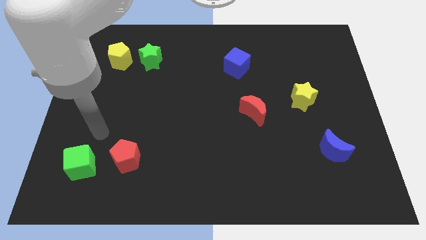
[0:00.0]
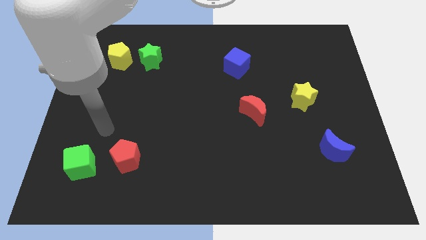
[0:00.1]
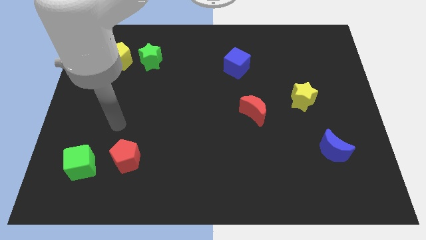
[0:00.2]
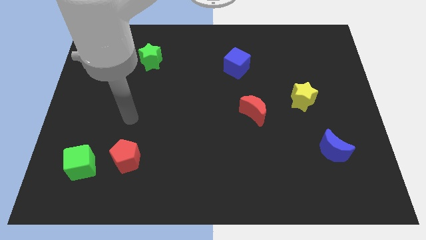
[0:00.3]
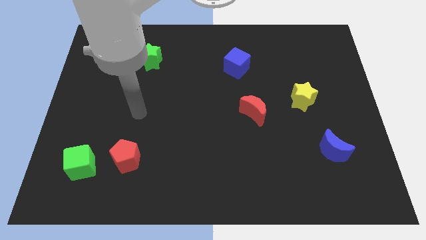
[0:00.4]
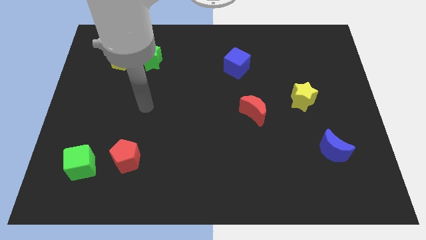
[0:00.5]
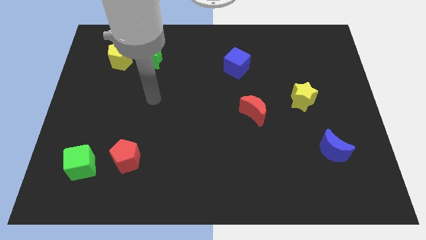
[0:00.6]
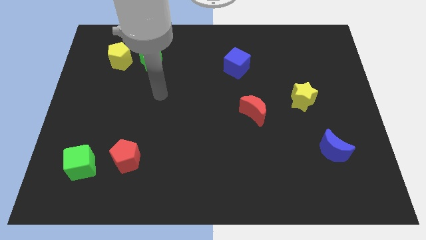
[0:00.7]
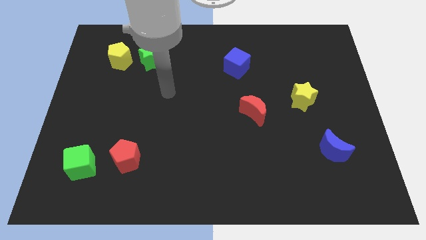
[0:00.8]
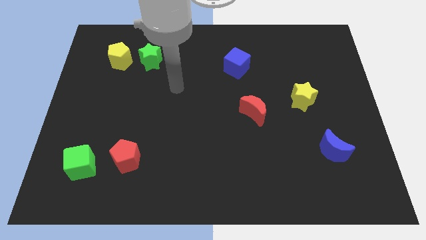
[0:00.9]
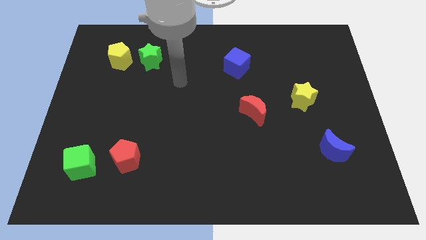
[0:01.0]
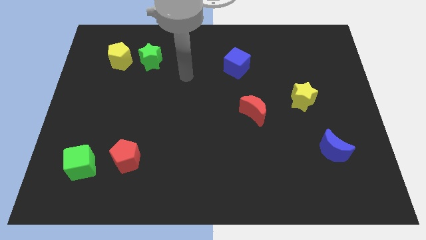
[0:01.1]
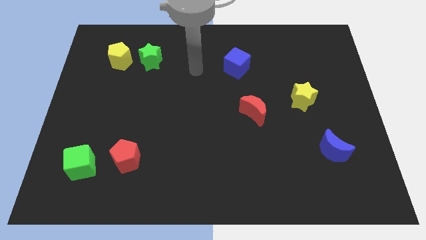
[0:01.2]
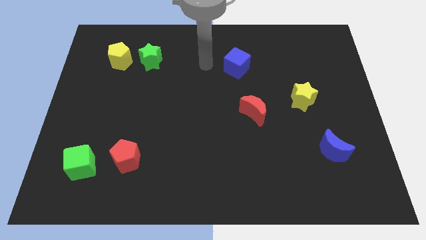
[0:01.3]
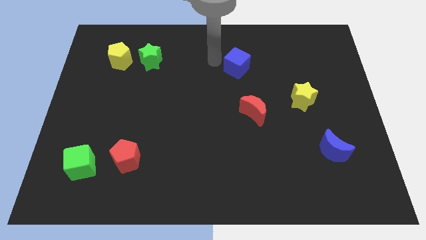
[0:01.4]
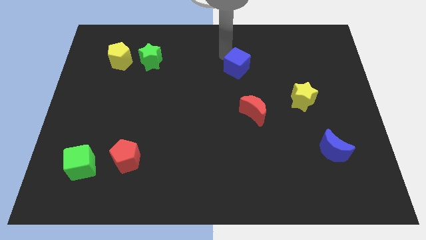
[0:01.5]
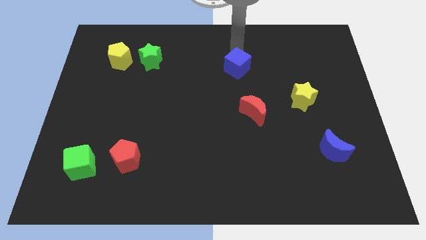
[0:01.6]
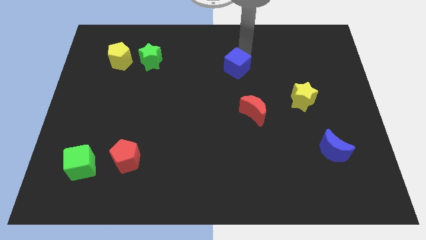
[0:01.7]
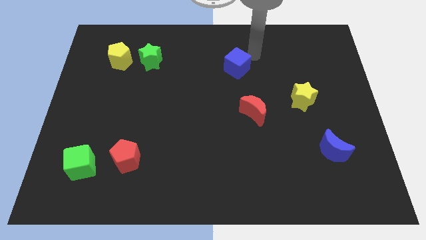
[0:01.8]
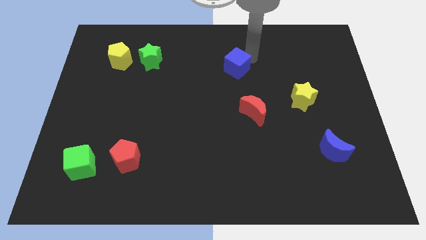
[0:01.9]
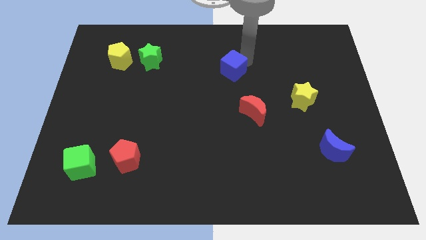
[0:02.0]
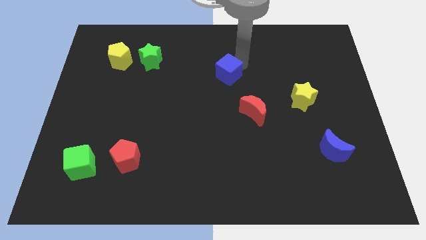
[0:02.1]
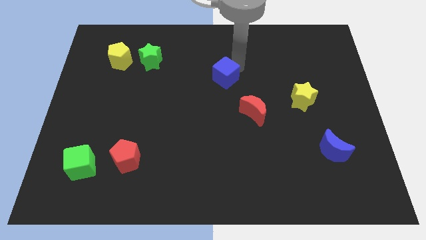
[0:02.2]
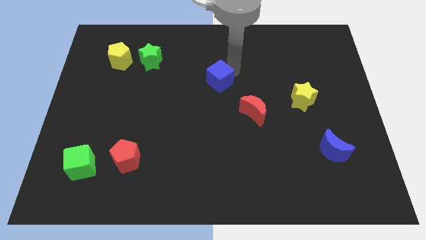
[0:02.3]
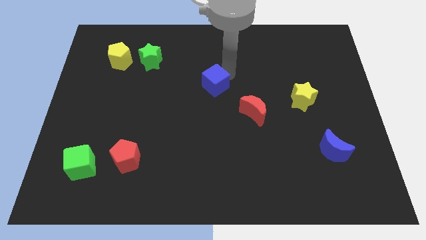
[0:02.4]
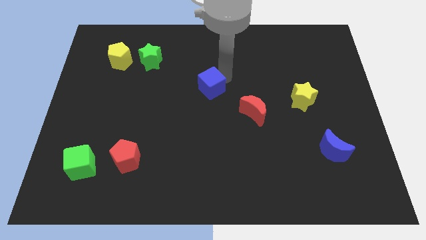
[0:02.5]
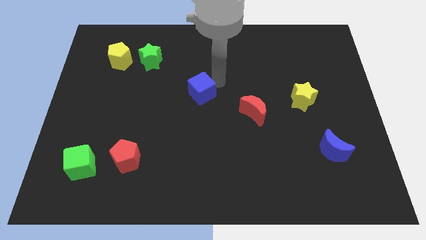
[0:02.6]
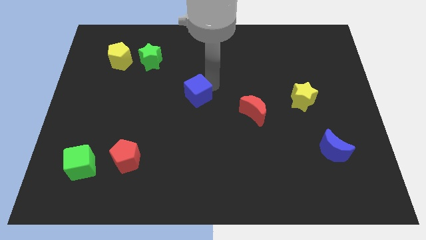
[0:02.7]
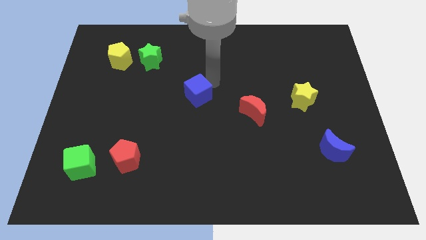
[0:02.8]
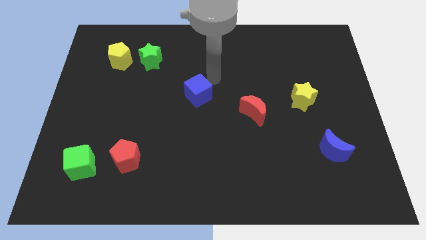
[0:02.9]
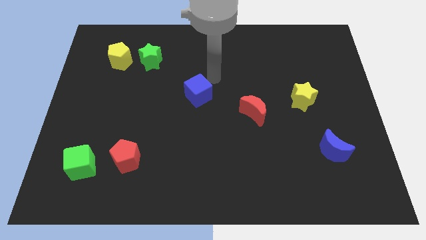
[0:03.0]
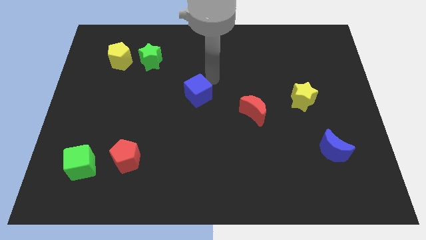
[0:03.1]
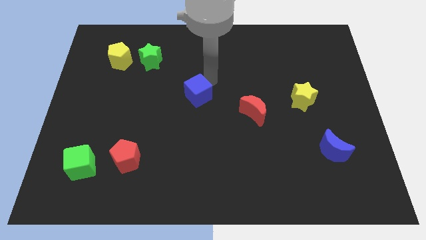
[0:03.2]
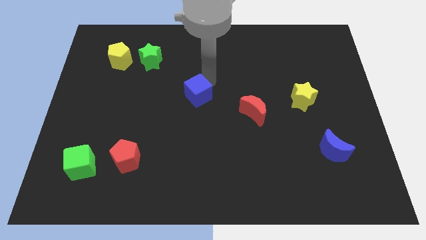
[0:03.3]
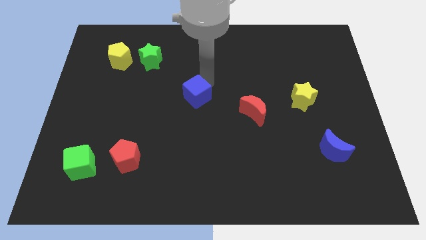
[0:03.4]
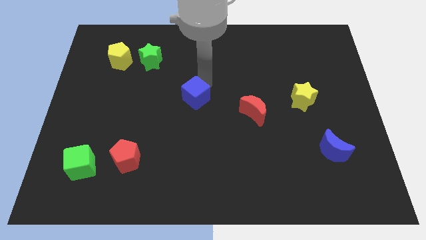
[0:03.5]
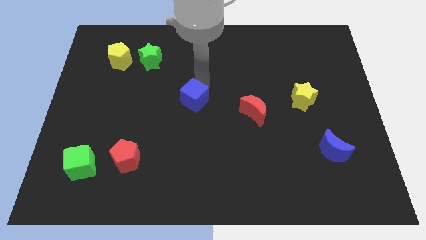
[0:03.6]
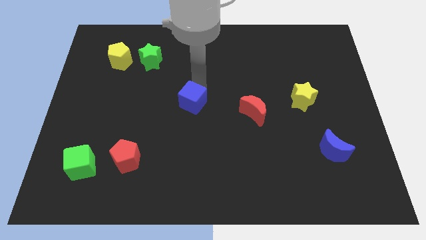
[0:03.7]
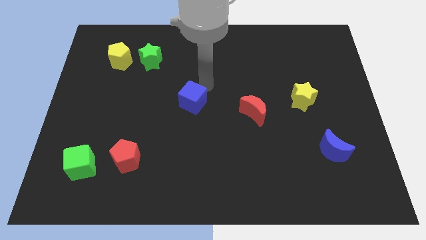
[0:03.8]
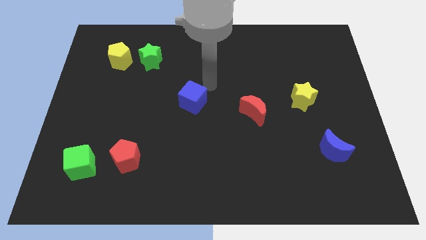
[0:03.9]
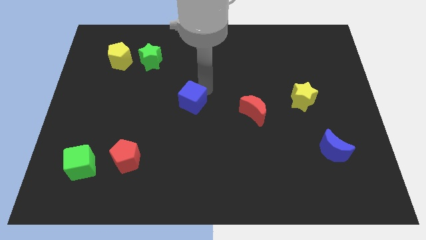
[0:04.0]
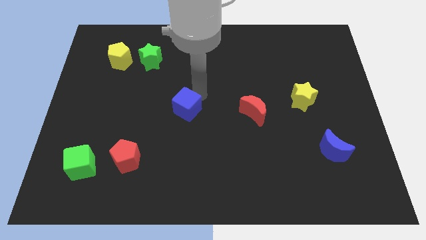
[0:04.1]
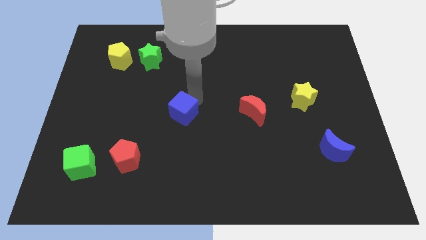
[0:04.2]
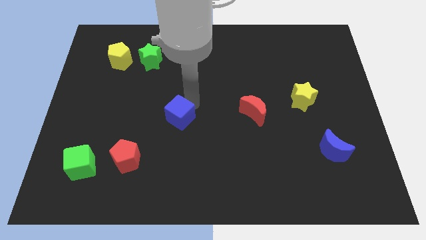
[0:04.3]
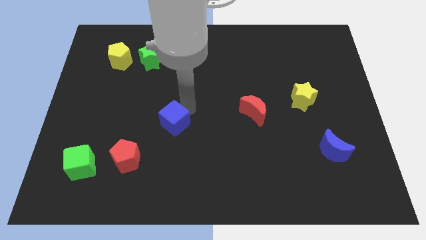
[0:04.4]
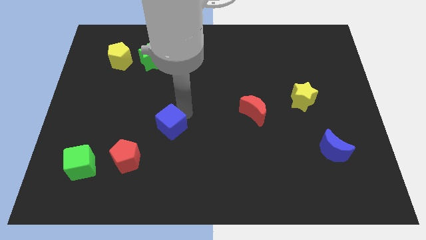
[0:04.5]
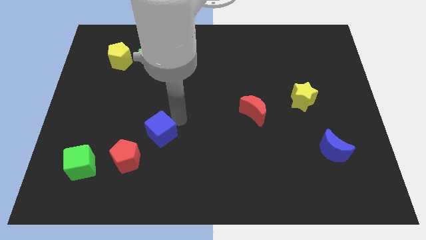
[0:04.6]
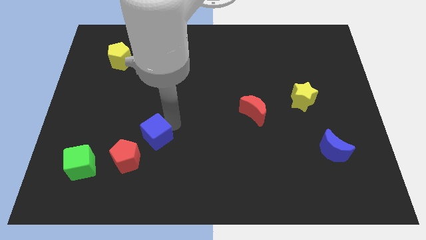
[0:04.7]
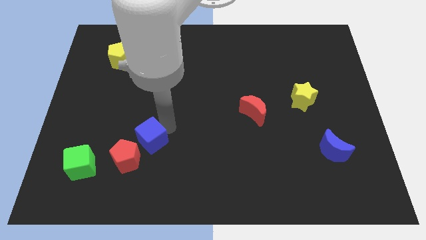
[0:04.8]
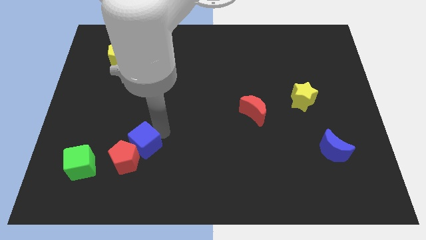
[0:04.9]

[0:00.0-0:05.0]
slide the blue cube to the red pentagon

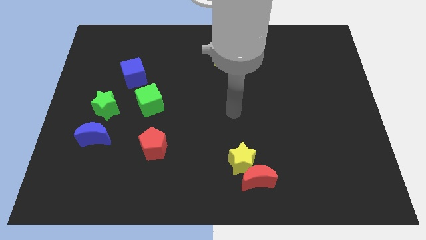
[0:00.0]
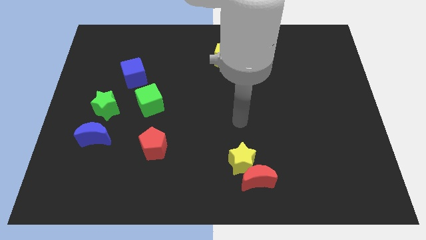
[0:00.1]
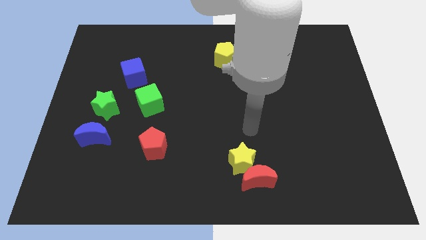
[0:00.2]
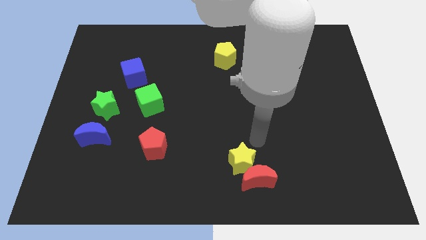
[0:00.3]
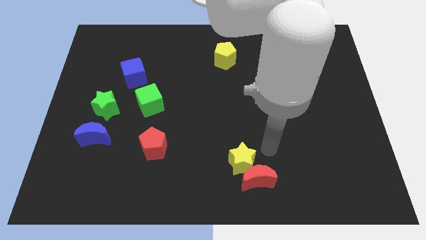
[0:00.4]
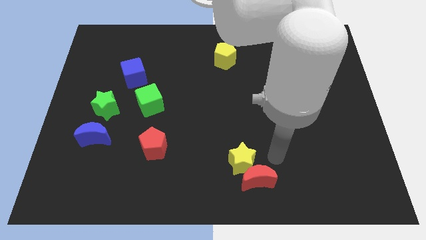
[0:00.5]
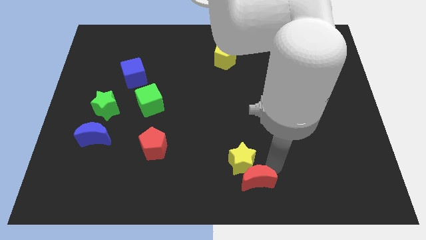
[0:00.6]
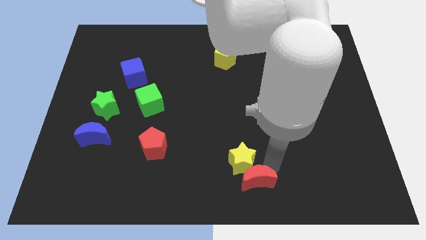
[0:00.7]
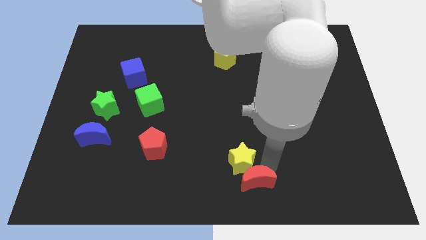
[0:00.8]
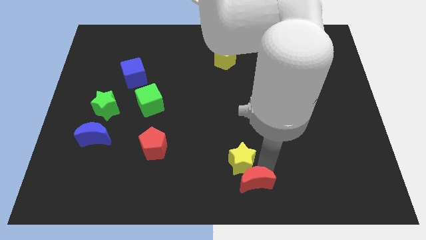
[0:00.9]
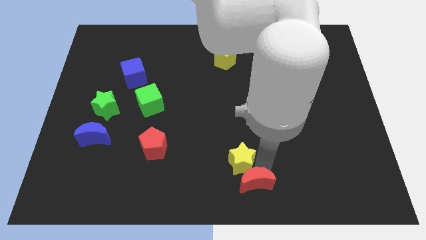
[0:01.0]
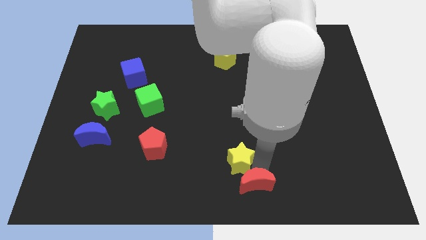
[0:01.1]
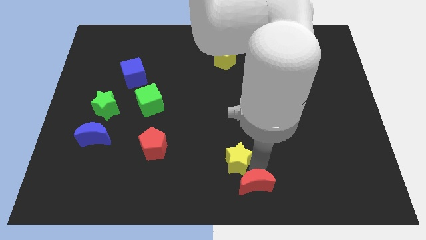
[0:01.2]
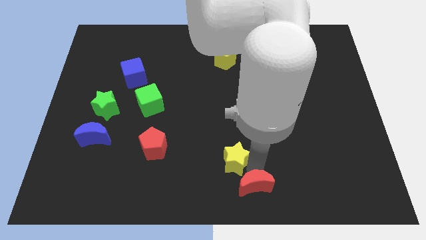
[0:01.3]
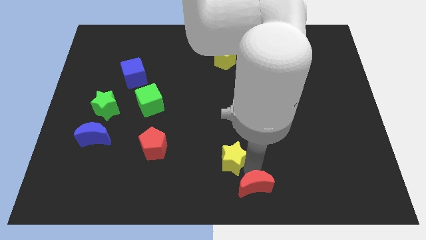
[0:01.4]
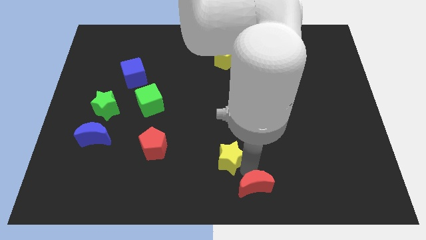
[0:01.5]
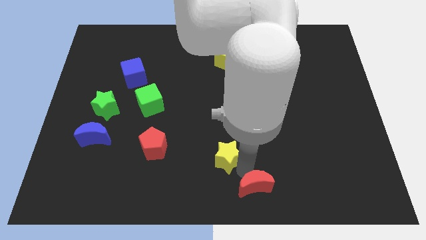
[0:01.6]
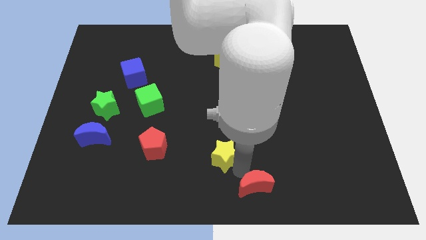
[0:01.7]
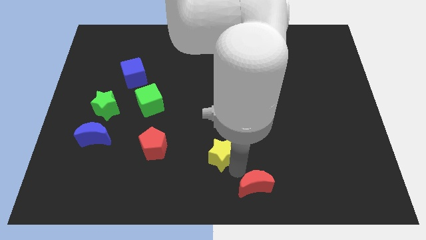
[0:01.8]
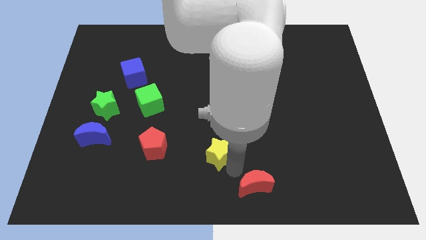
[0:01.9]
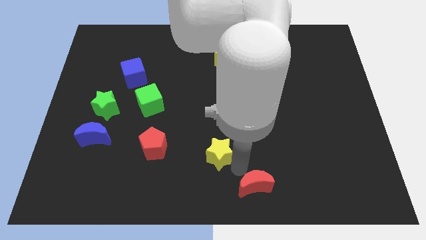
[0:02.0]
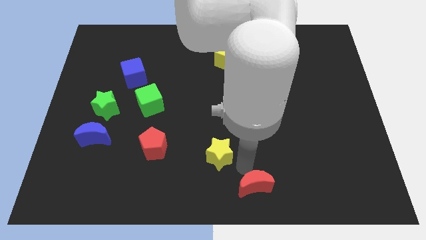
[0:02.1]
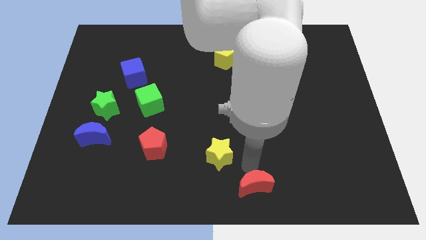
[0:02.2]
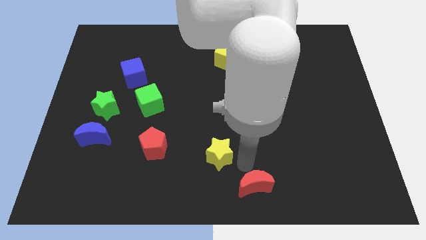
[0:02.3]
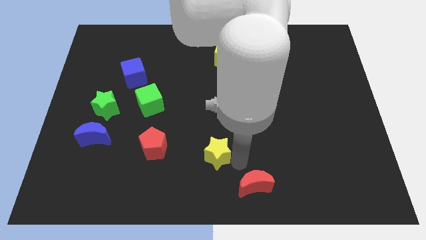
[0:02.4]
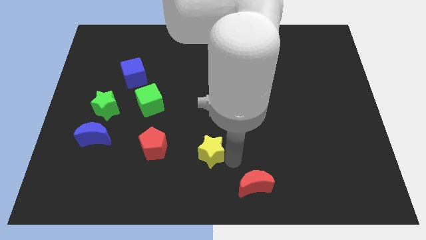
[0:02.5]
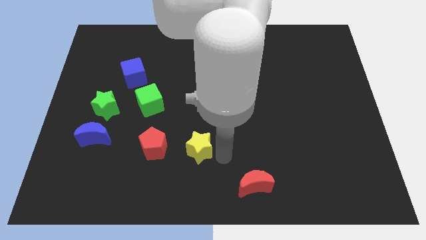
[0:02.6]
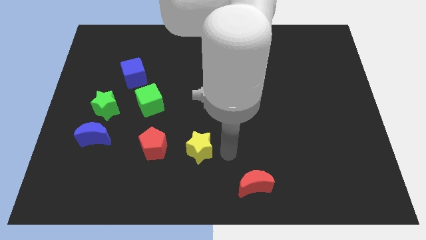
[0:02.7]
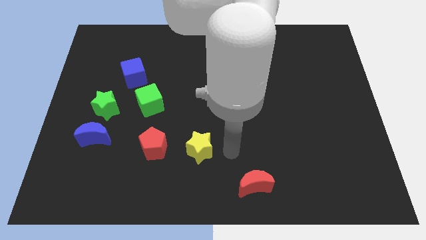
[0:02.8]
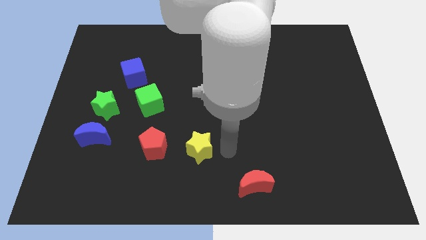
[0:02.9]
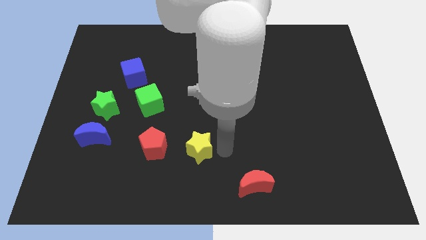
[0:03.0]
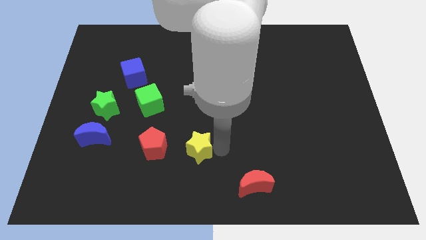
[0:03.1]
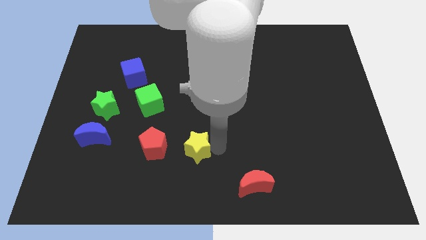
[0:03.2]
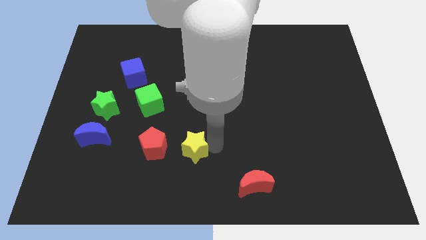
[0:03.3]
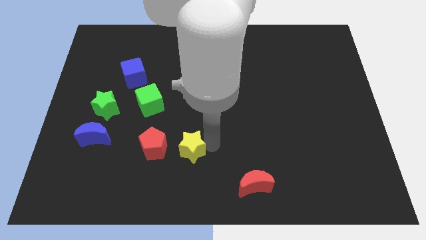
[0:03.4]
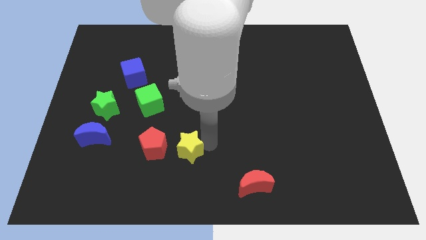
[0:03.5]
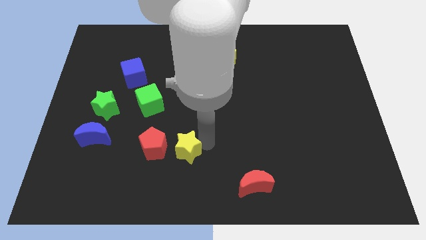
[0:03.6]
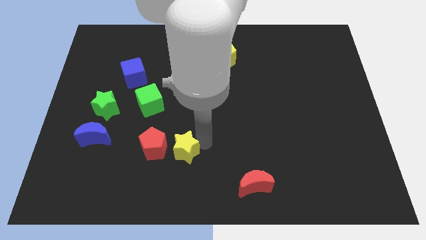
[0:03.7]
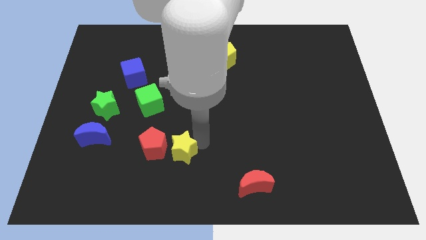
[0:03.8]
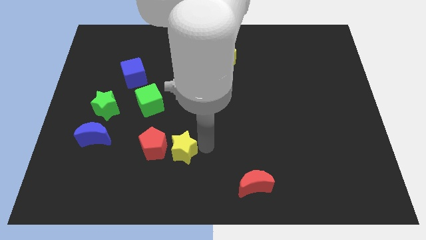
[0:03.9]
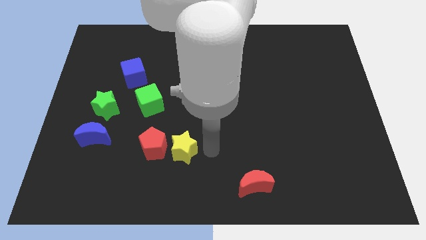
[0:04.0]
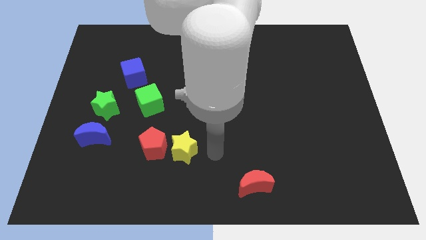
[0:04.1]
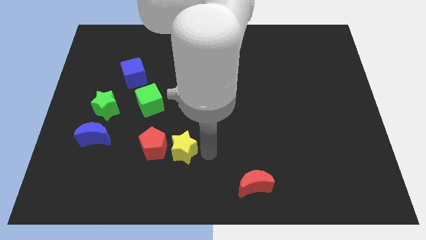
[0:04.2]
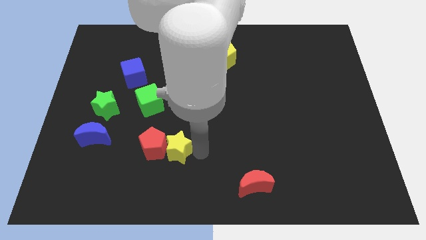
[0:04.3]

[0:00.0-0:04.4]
slide the yellow star next to the red pentagon
